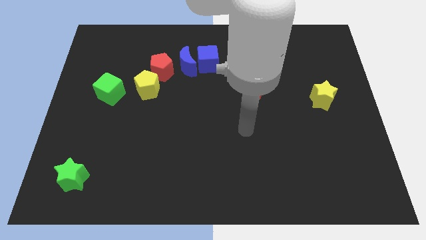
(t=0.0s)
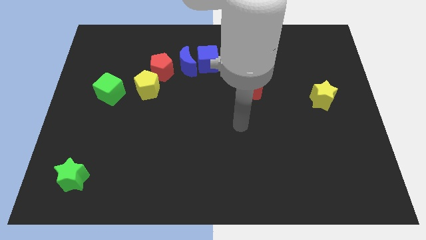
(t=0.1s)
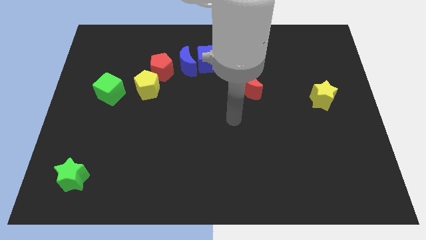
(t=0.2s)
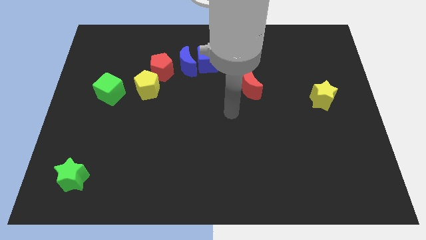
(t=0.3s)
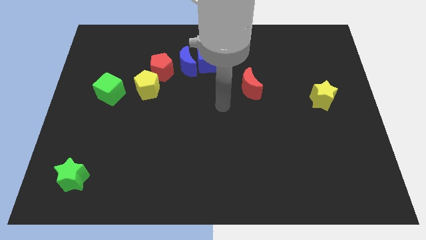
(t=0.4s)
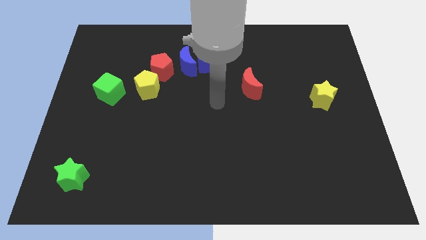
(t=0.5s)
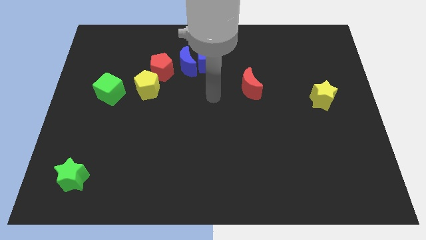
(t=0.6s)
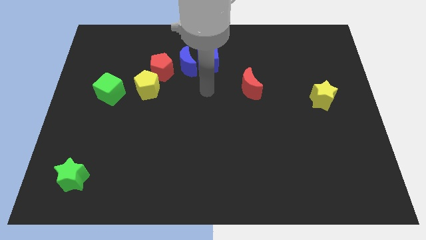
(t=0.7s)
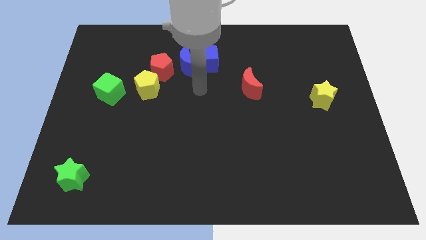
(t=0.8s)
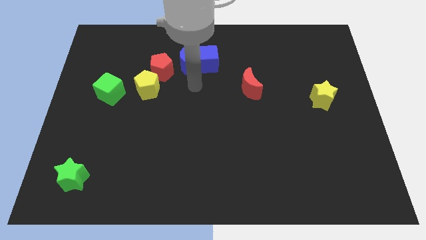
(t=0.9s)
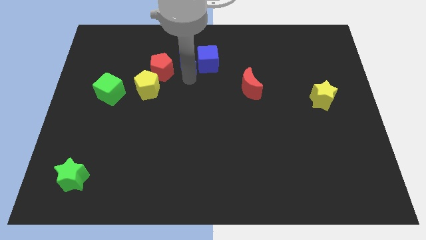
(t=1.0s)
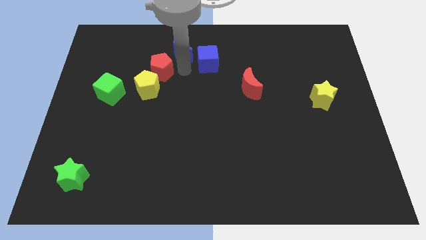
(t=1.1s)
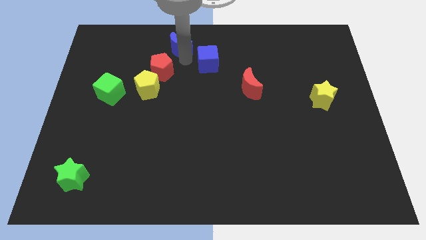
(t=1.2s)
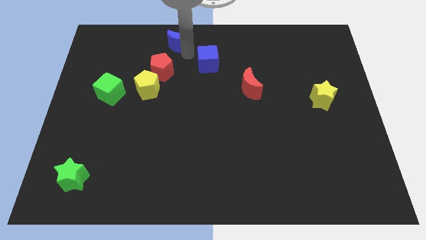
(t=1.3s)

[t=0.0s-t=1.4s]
move the blue cube away from the blue moon

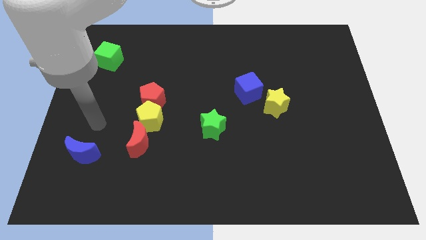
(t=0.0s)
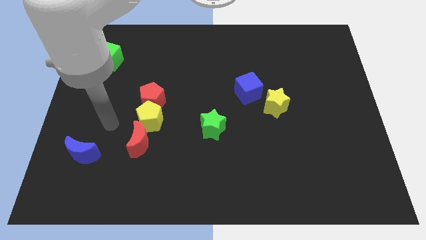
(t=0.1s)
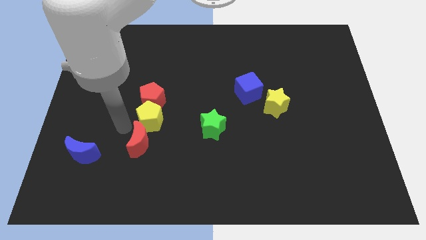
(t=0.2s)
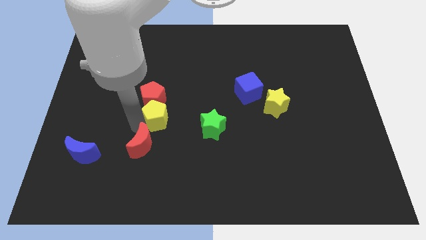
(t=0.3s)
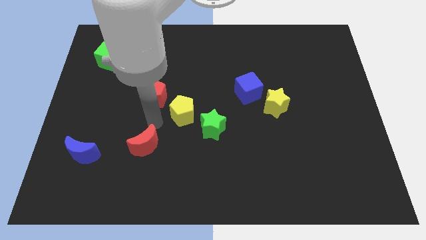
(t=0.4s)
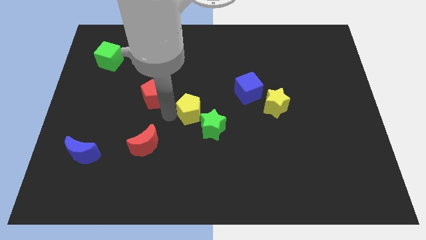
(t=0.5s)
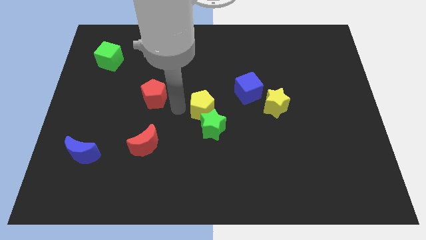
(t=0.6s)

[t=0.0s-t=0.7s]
separate the red pentagon from the yellow pentagon

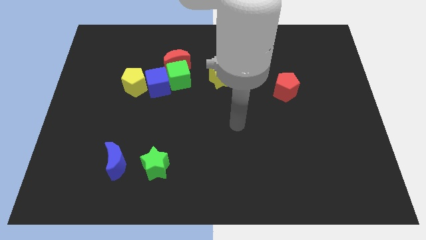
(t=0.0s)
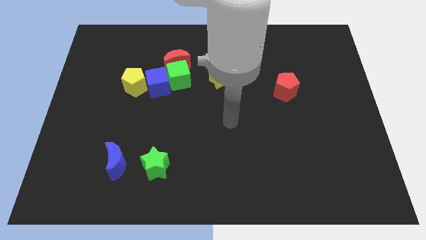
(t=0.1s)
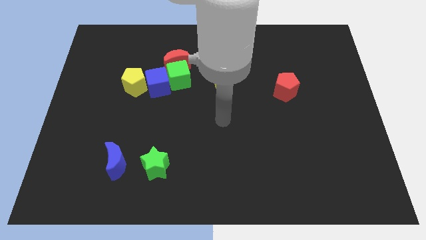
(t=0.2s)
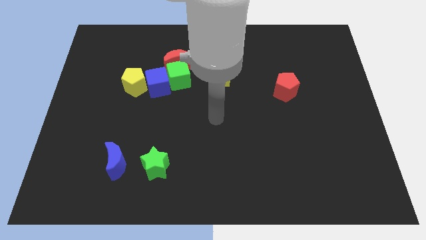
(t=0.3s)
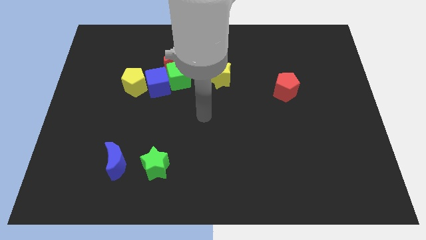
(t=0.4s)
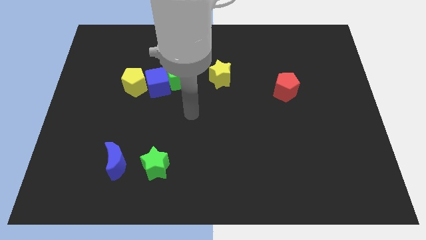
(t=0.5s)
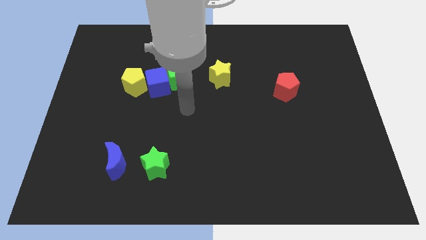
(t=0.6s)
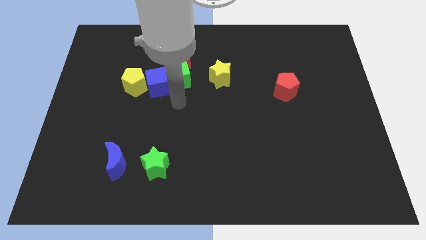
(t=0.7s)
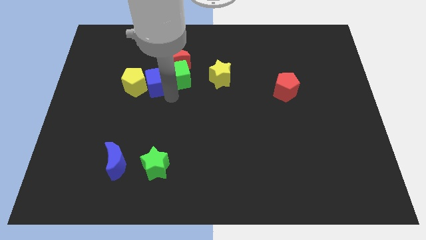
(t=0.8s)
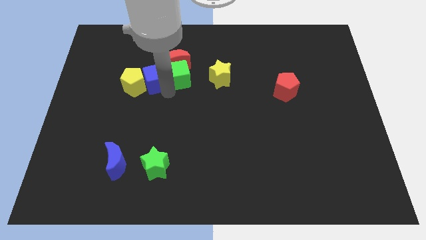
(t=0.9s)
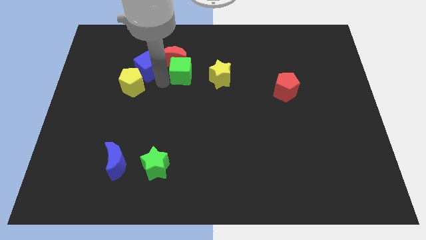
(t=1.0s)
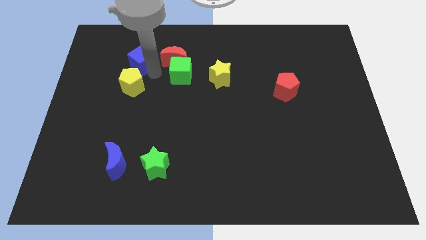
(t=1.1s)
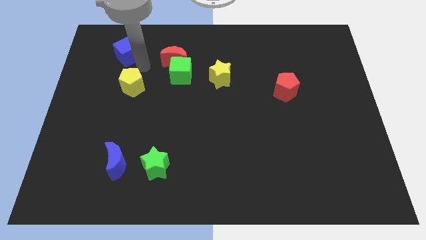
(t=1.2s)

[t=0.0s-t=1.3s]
pull the yellow pentagon apart from the blue cube

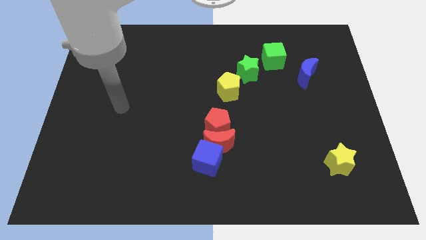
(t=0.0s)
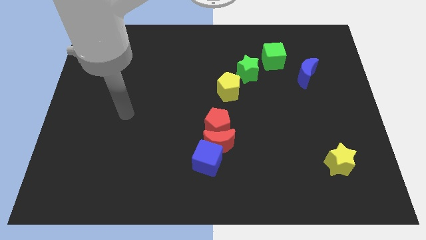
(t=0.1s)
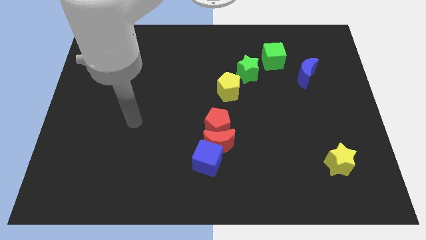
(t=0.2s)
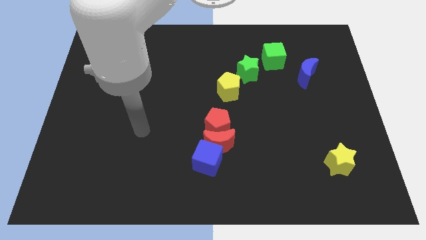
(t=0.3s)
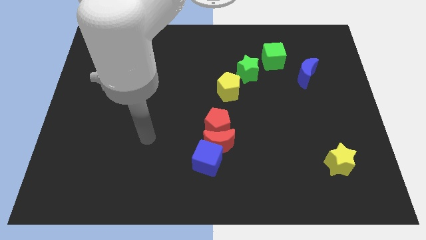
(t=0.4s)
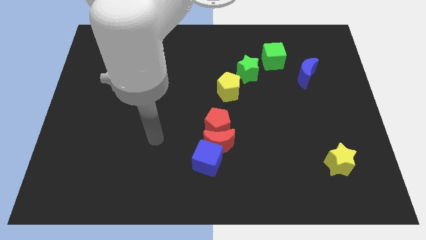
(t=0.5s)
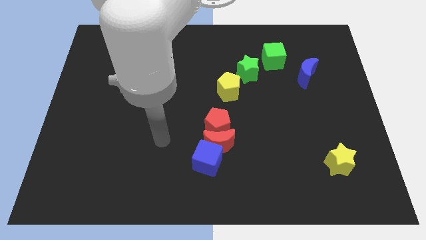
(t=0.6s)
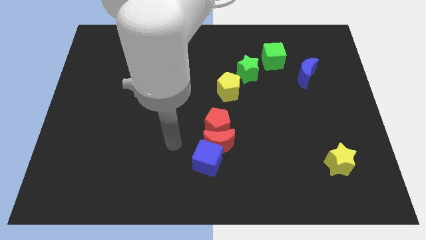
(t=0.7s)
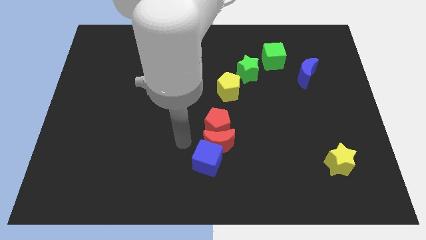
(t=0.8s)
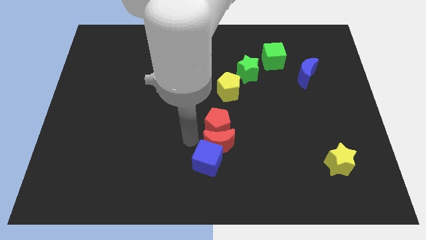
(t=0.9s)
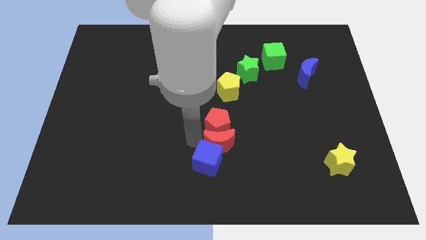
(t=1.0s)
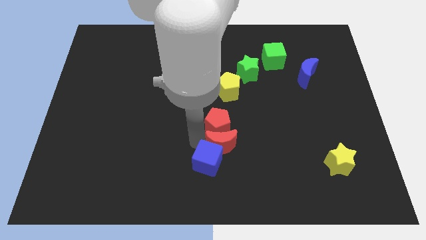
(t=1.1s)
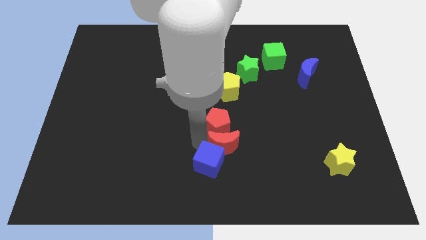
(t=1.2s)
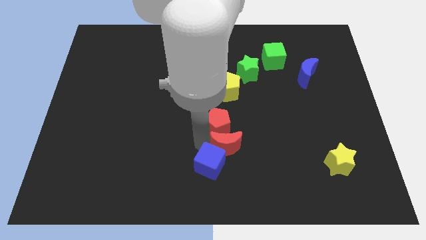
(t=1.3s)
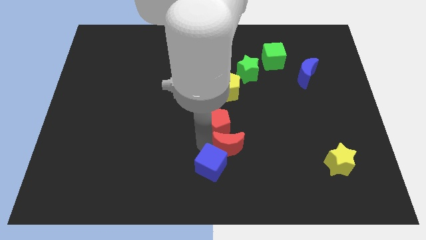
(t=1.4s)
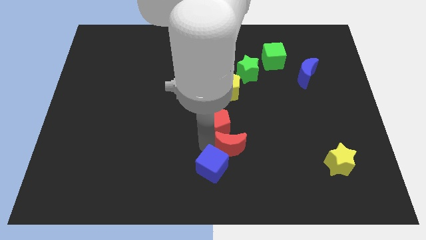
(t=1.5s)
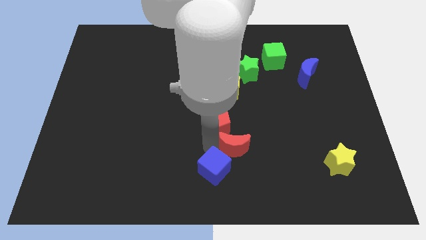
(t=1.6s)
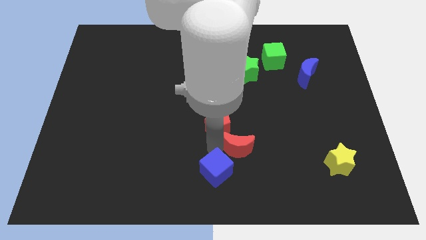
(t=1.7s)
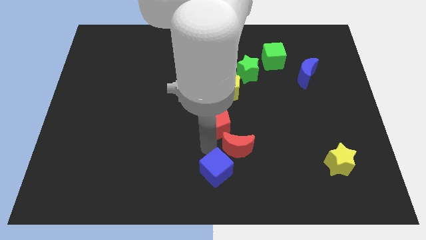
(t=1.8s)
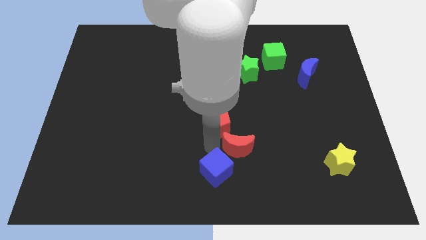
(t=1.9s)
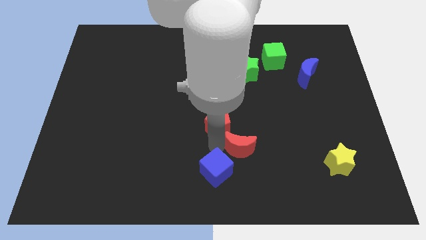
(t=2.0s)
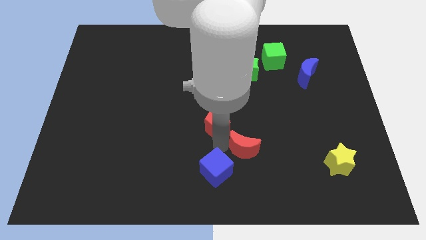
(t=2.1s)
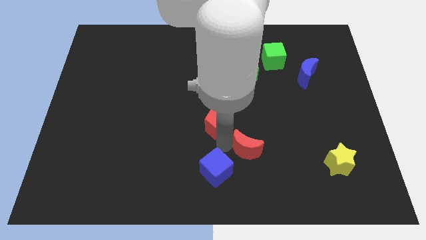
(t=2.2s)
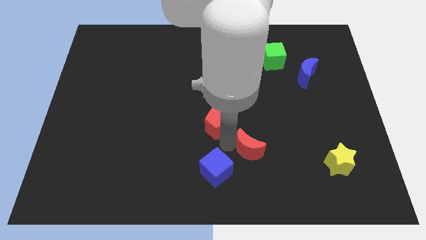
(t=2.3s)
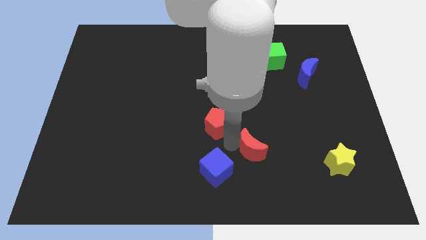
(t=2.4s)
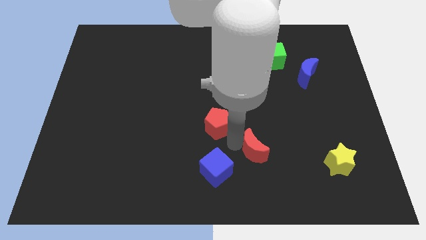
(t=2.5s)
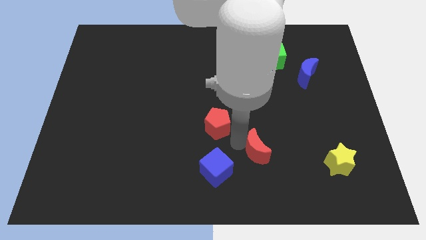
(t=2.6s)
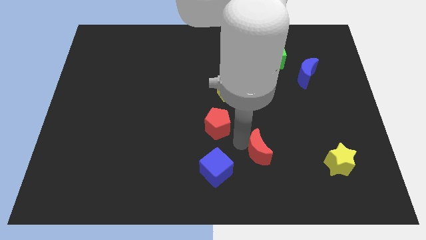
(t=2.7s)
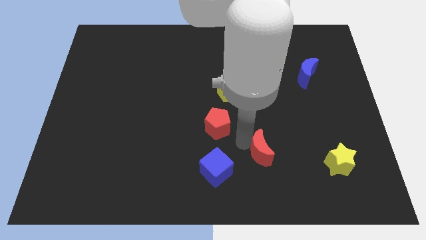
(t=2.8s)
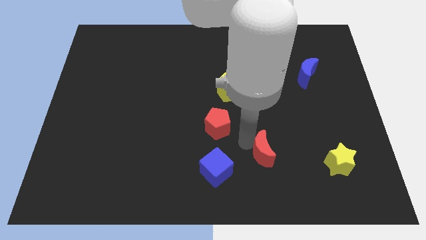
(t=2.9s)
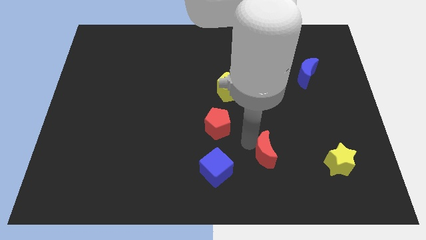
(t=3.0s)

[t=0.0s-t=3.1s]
pull the red moon apart from the red pentagon and blue cube

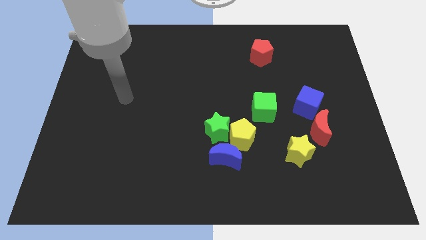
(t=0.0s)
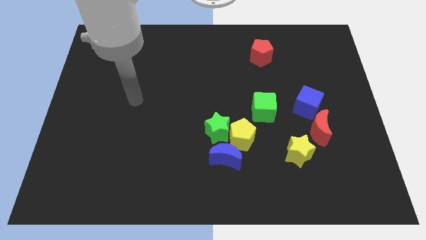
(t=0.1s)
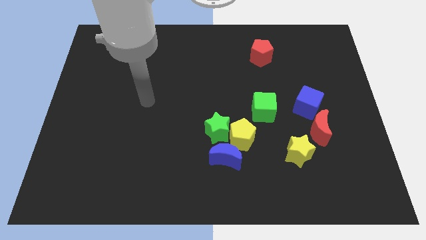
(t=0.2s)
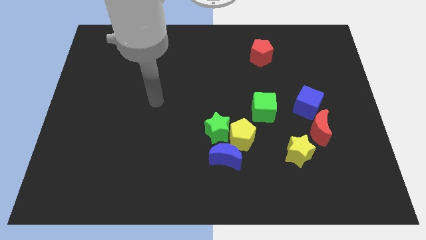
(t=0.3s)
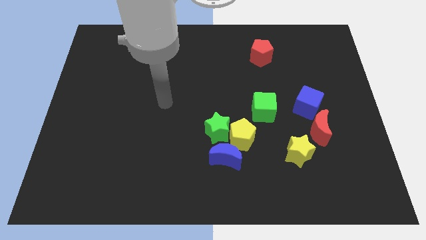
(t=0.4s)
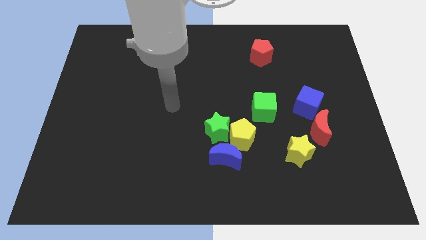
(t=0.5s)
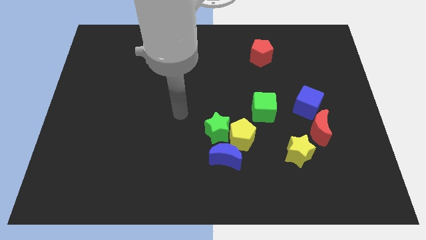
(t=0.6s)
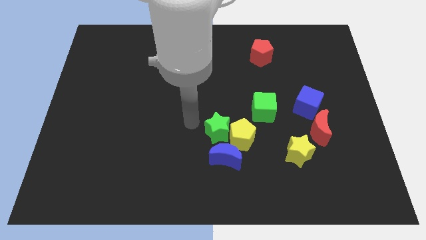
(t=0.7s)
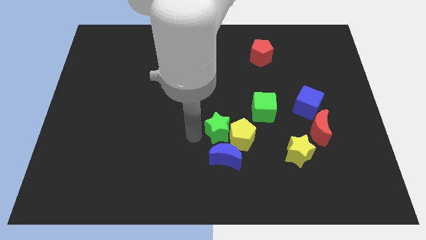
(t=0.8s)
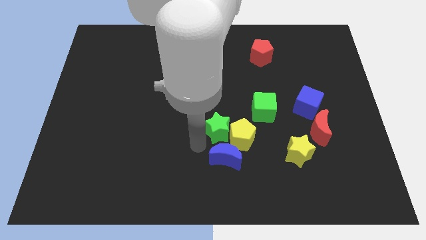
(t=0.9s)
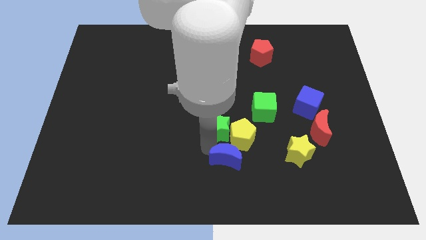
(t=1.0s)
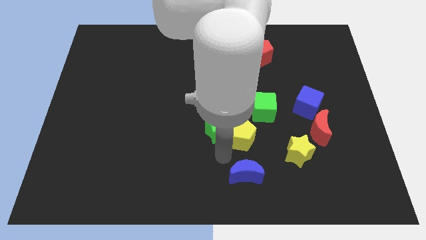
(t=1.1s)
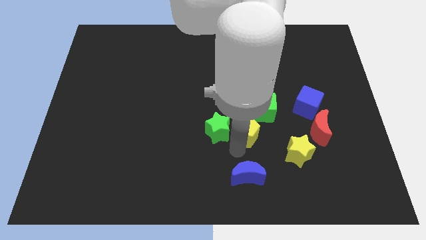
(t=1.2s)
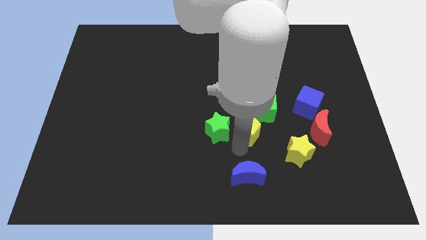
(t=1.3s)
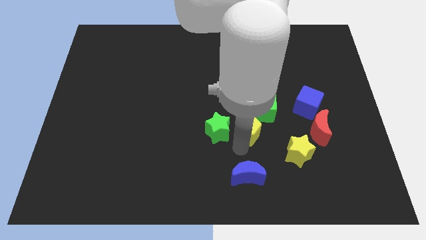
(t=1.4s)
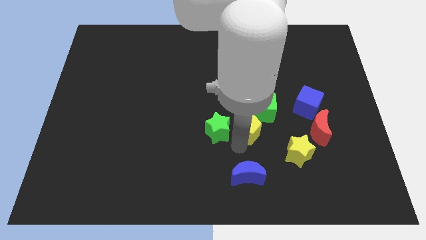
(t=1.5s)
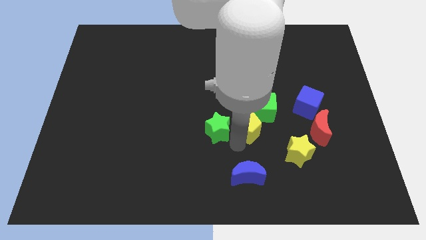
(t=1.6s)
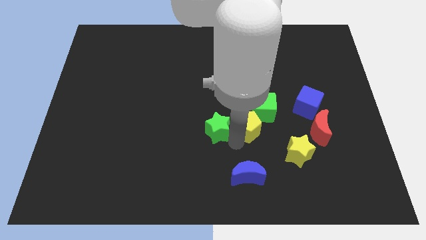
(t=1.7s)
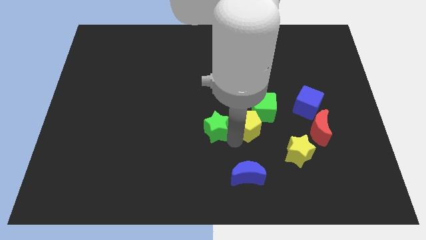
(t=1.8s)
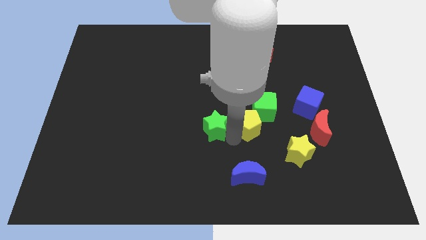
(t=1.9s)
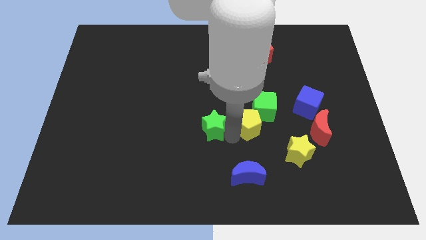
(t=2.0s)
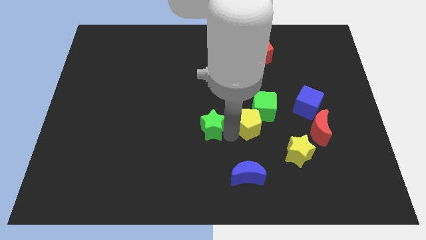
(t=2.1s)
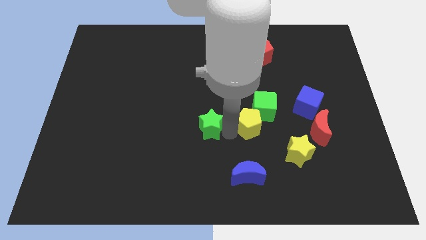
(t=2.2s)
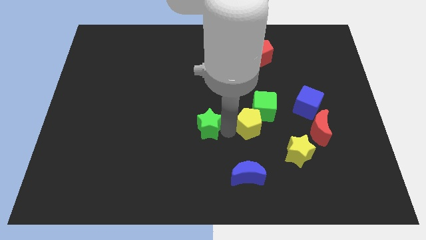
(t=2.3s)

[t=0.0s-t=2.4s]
move the green star away from the yellow pentagon and blue moon

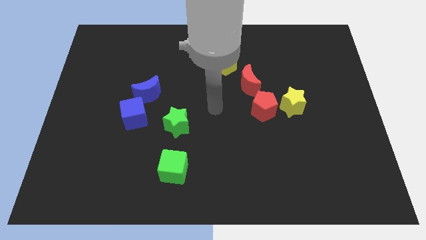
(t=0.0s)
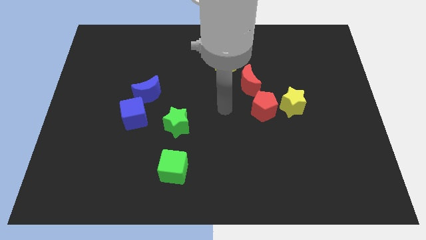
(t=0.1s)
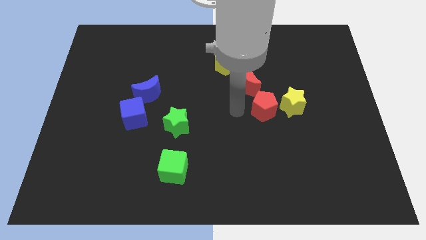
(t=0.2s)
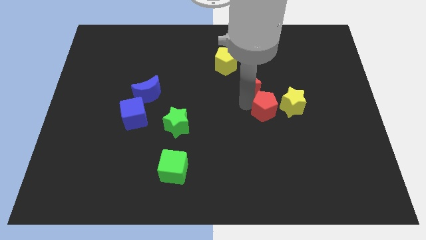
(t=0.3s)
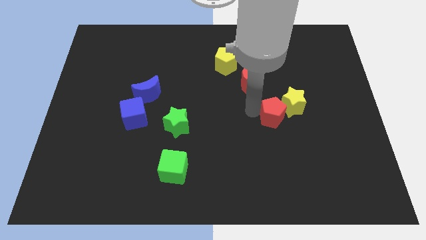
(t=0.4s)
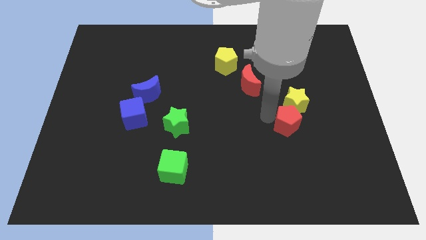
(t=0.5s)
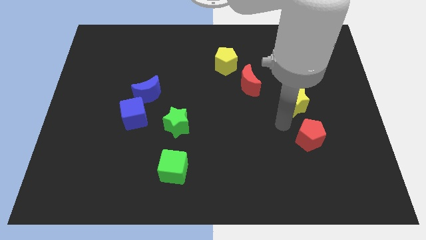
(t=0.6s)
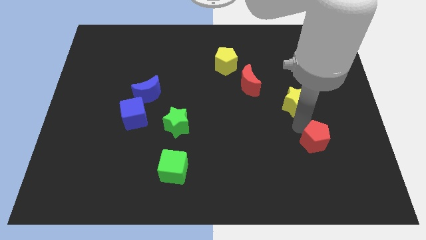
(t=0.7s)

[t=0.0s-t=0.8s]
move the yellow star away from the red pentagon
